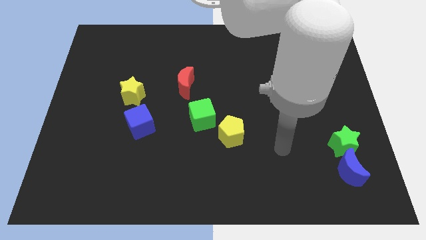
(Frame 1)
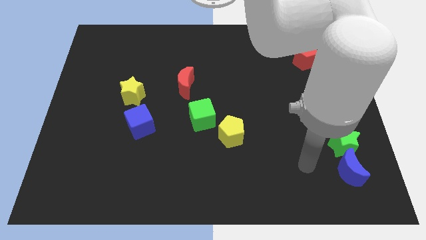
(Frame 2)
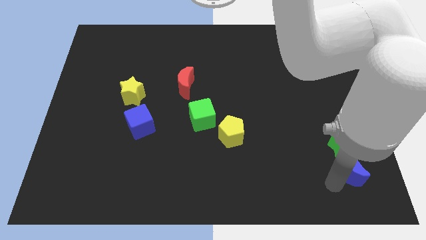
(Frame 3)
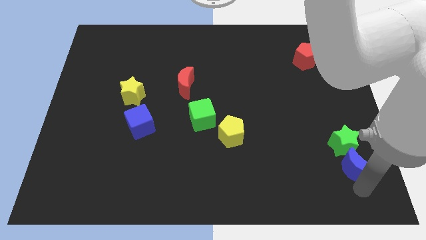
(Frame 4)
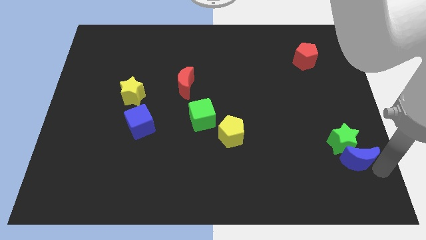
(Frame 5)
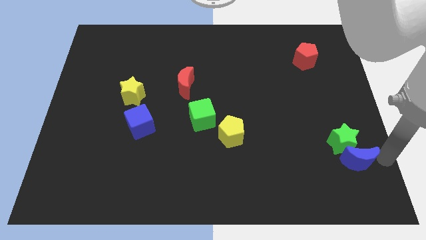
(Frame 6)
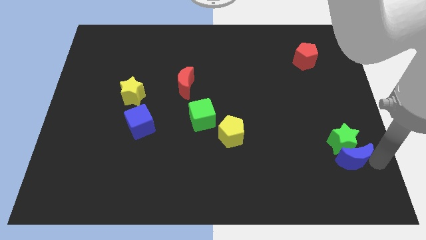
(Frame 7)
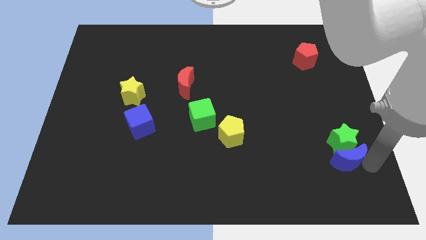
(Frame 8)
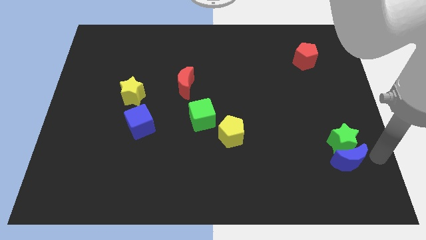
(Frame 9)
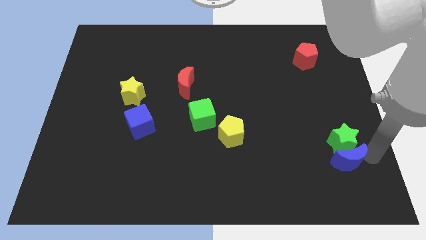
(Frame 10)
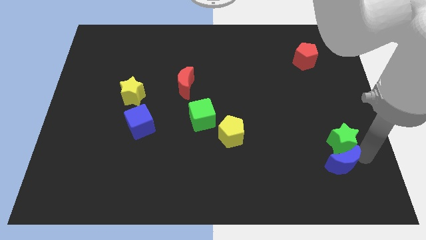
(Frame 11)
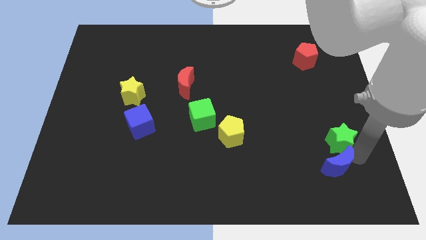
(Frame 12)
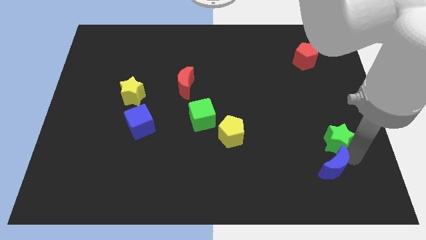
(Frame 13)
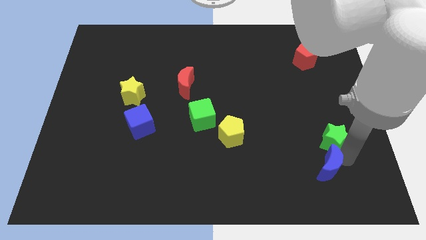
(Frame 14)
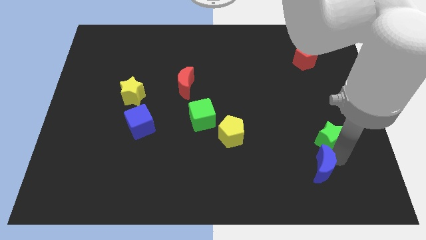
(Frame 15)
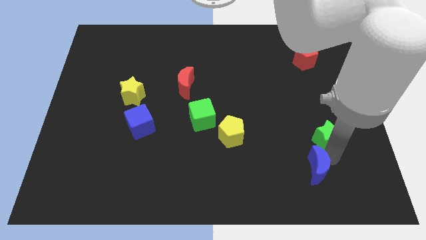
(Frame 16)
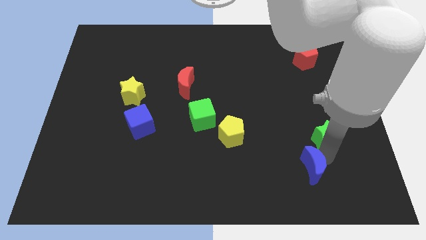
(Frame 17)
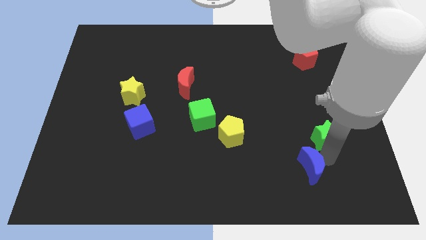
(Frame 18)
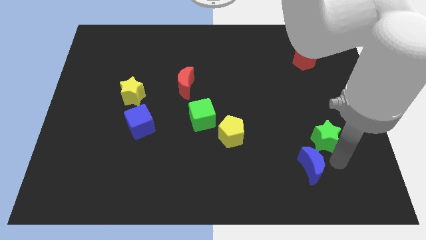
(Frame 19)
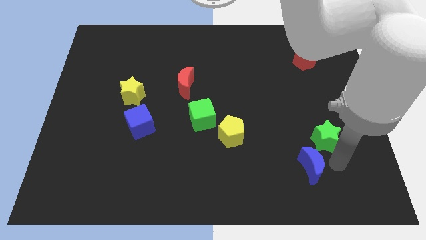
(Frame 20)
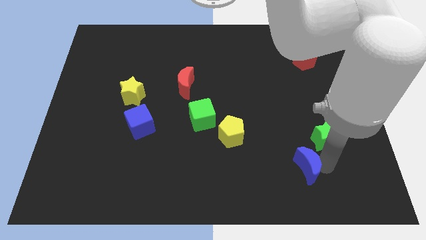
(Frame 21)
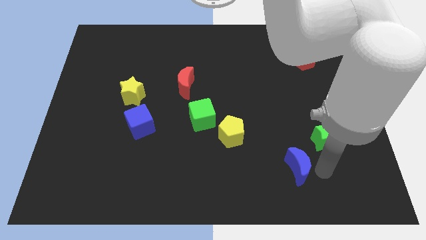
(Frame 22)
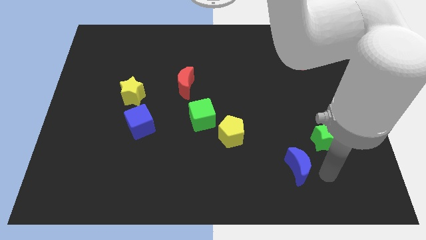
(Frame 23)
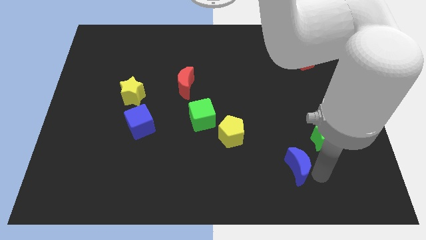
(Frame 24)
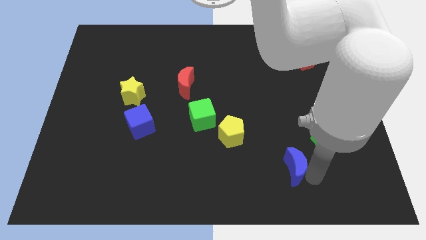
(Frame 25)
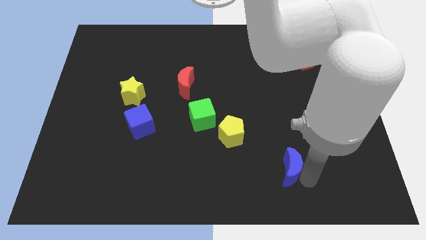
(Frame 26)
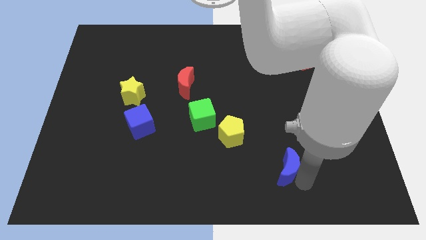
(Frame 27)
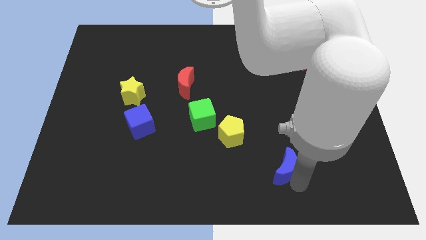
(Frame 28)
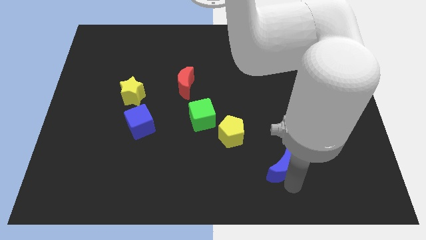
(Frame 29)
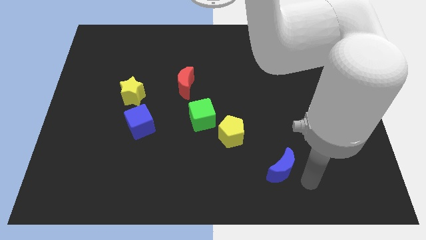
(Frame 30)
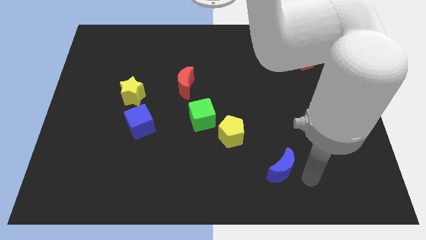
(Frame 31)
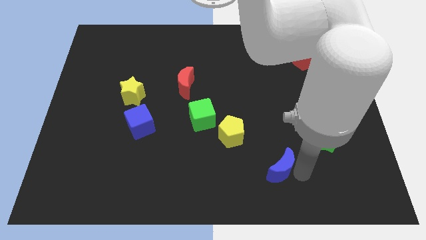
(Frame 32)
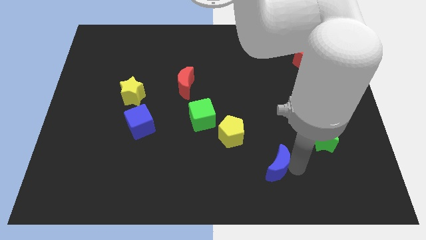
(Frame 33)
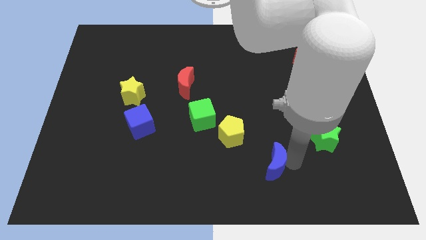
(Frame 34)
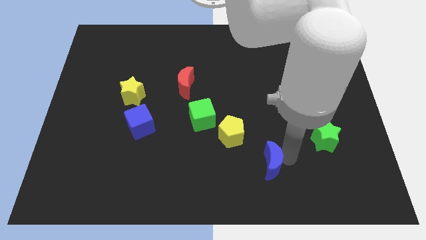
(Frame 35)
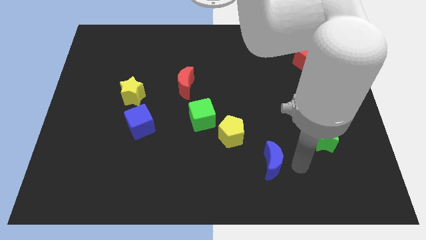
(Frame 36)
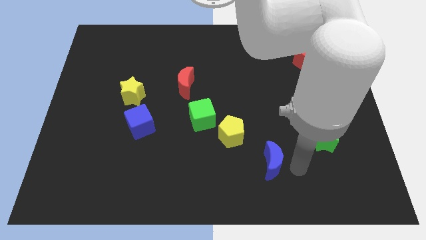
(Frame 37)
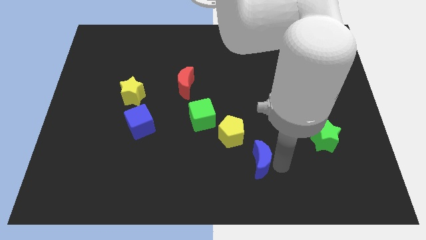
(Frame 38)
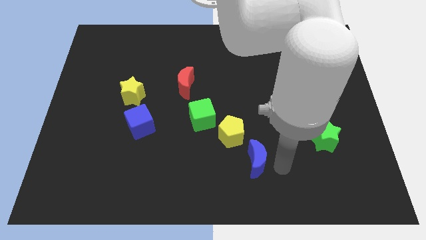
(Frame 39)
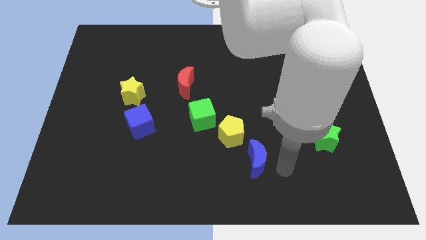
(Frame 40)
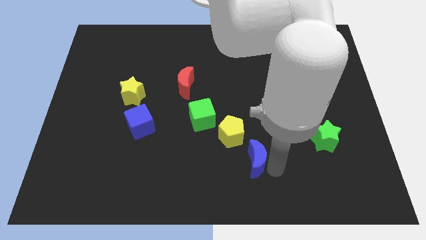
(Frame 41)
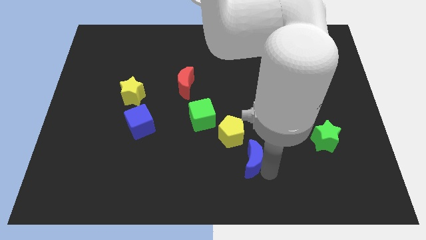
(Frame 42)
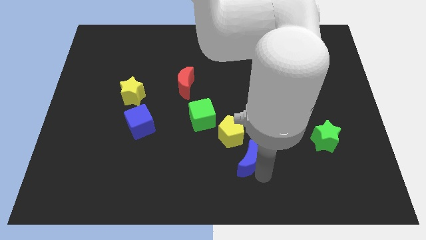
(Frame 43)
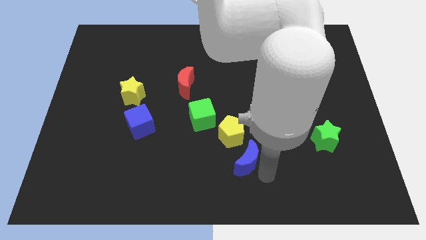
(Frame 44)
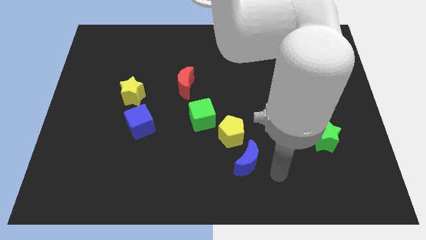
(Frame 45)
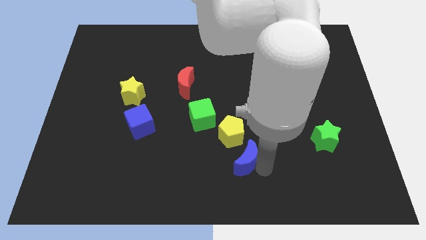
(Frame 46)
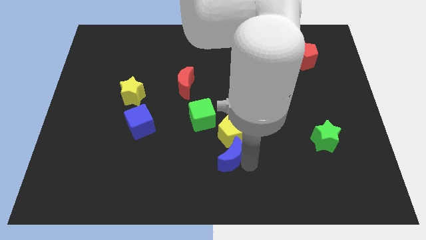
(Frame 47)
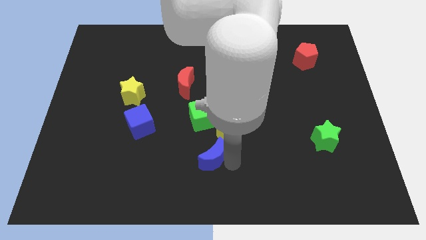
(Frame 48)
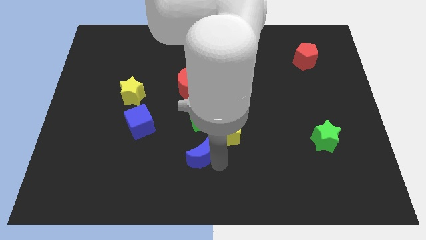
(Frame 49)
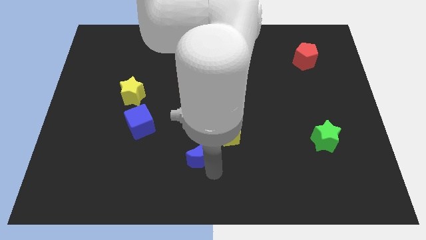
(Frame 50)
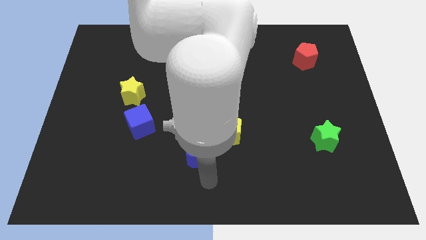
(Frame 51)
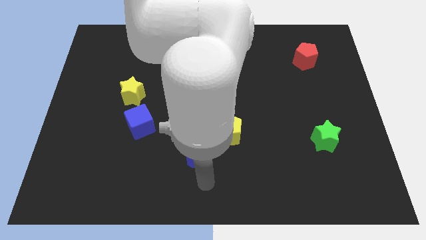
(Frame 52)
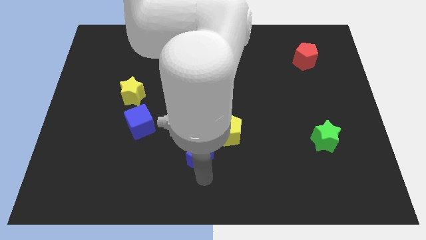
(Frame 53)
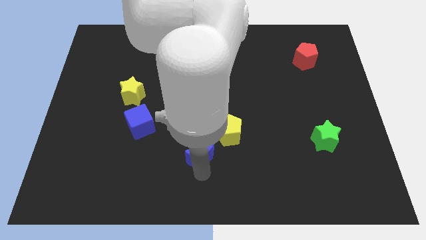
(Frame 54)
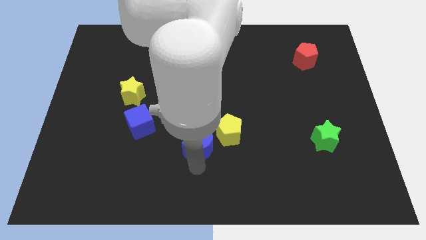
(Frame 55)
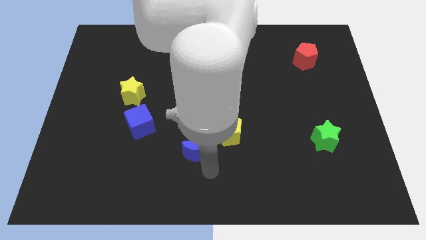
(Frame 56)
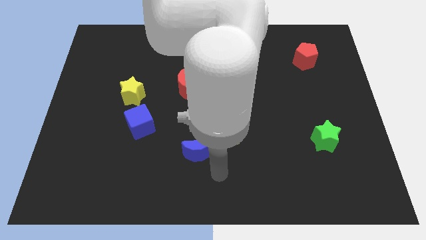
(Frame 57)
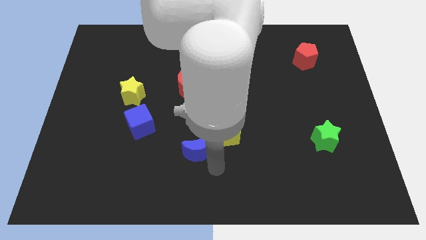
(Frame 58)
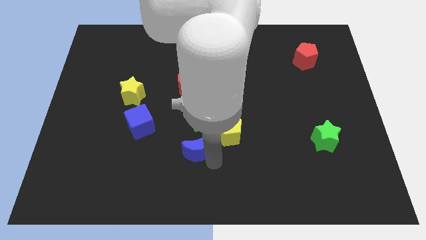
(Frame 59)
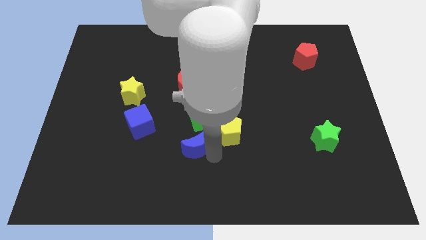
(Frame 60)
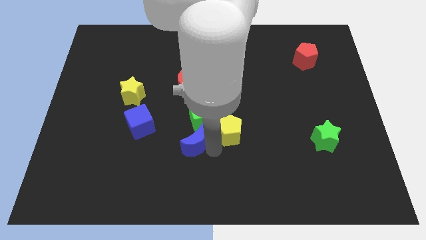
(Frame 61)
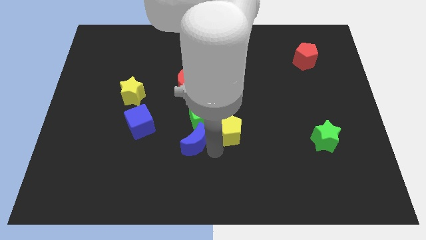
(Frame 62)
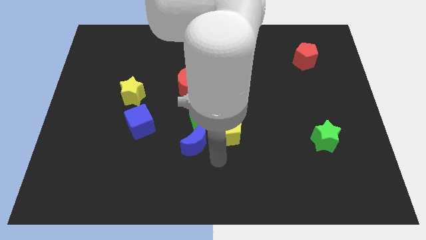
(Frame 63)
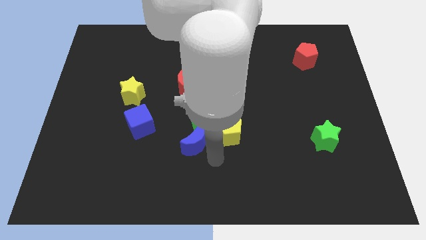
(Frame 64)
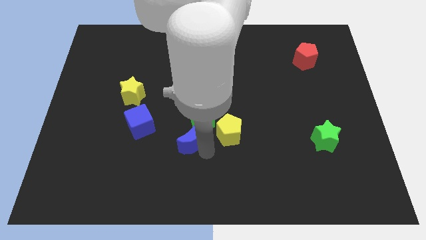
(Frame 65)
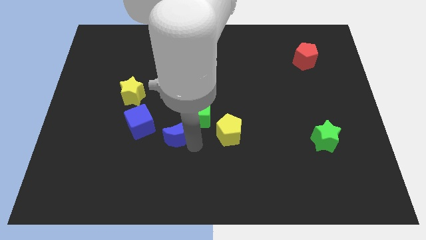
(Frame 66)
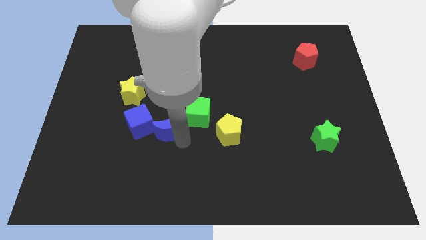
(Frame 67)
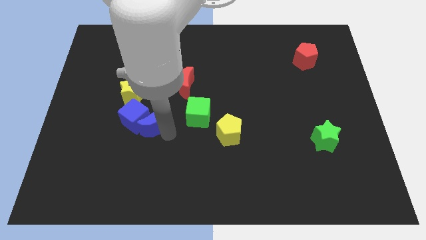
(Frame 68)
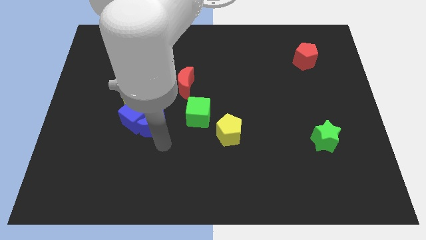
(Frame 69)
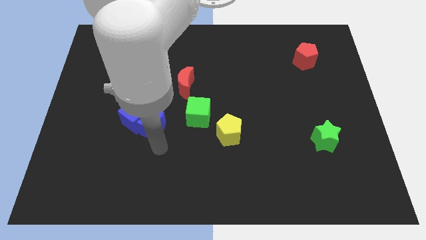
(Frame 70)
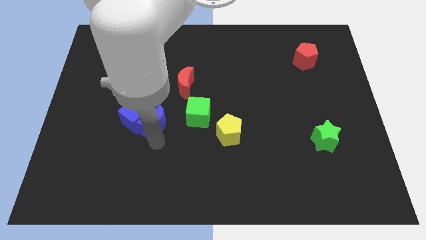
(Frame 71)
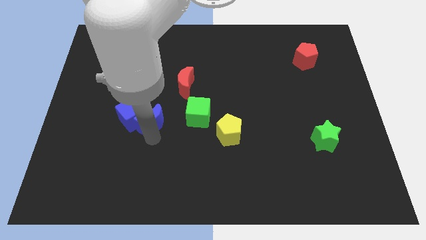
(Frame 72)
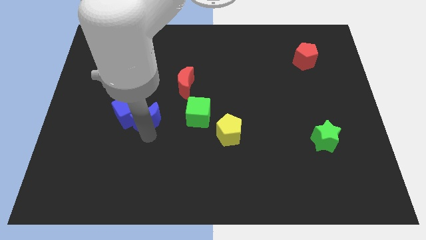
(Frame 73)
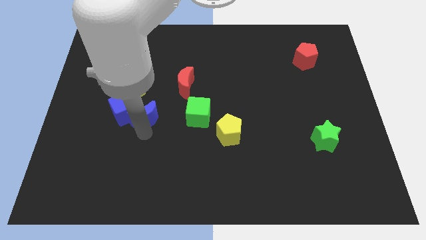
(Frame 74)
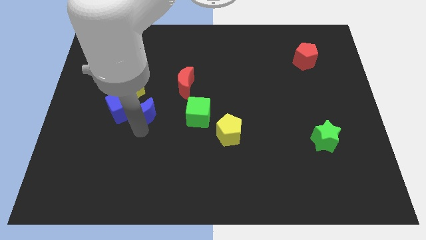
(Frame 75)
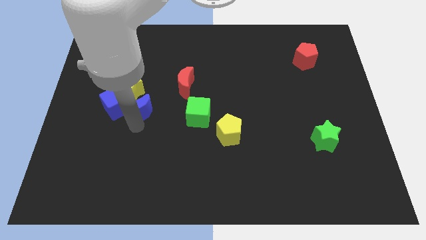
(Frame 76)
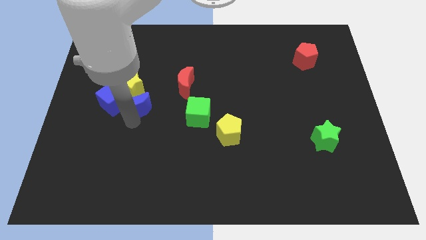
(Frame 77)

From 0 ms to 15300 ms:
put the blue moon to the yellow star
